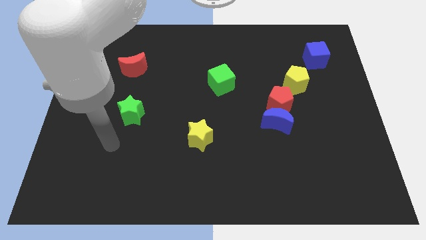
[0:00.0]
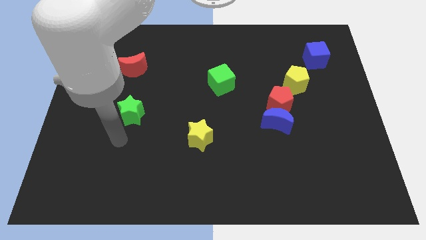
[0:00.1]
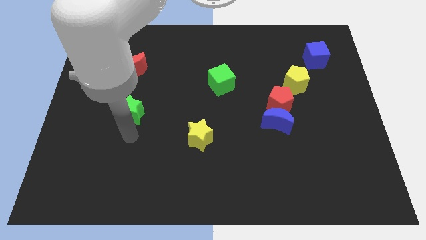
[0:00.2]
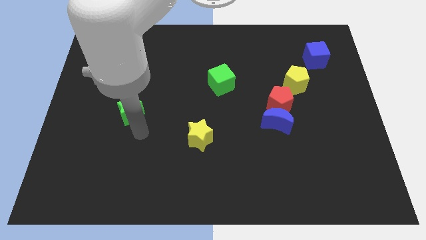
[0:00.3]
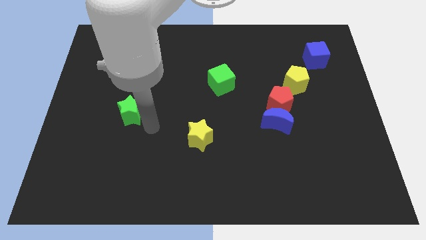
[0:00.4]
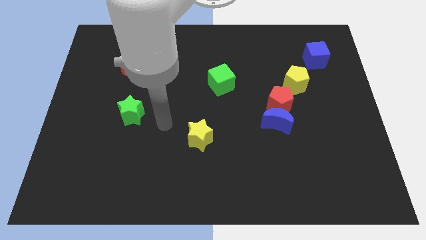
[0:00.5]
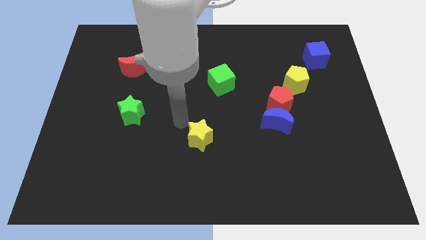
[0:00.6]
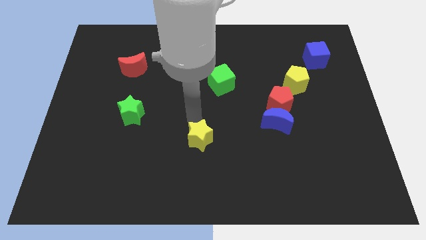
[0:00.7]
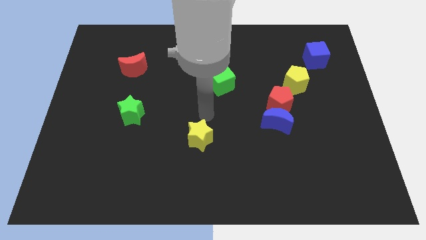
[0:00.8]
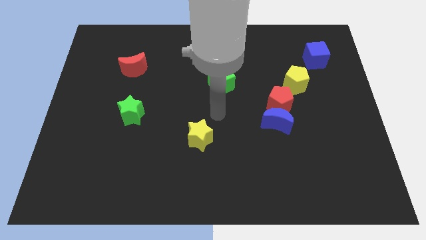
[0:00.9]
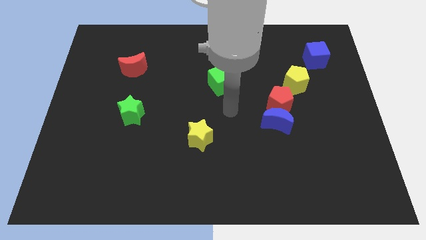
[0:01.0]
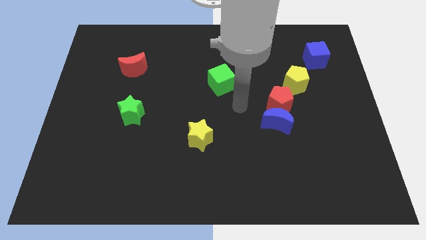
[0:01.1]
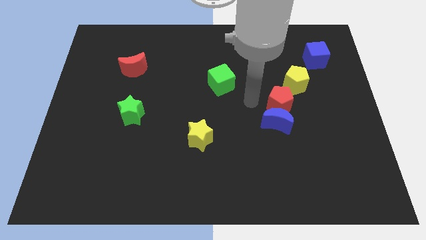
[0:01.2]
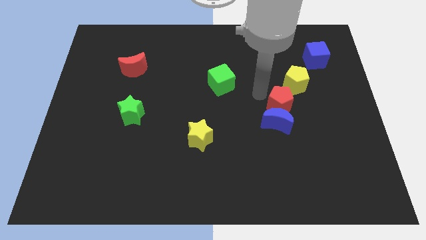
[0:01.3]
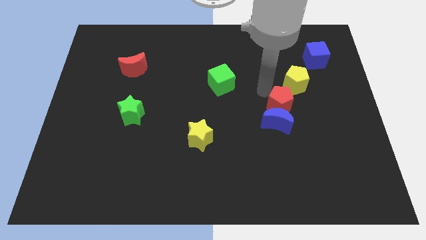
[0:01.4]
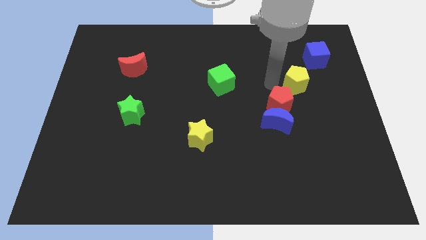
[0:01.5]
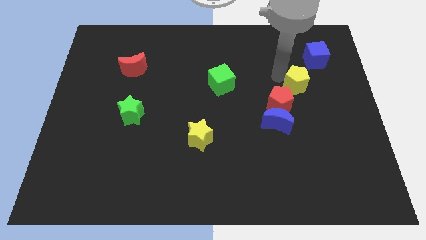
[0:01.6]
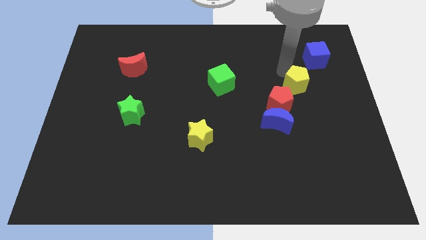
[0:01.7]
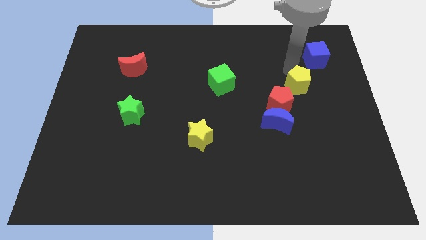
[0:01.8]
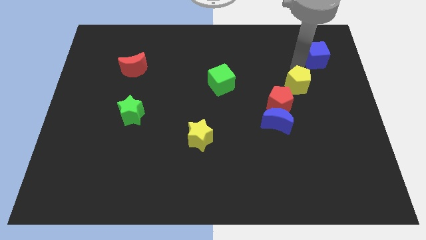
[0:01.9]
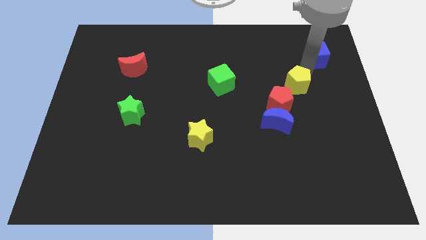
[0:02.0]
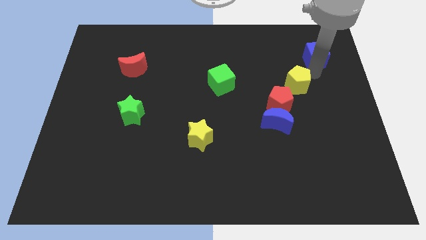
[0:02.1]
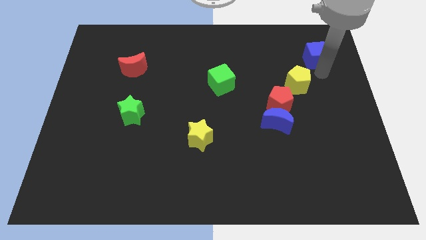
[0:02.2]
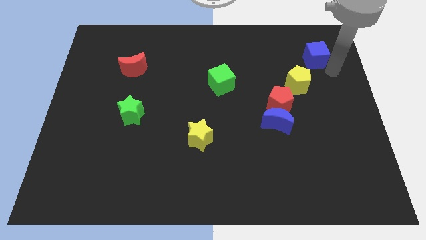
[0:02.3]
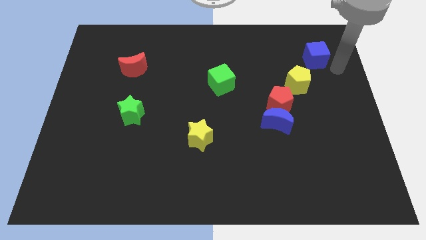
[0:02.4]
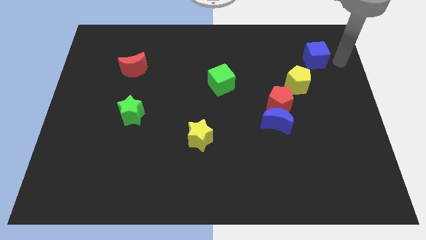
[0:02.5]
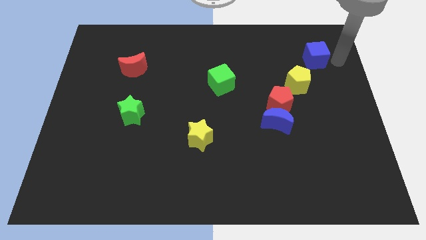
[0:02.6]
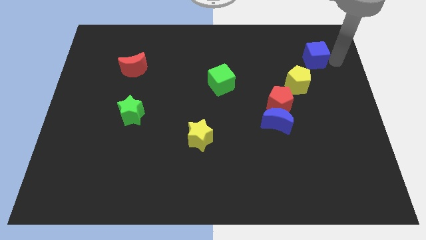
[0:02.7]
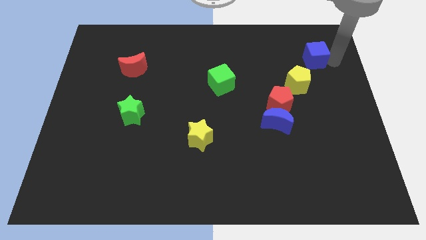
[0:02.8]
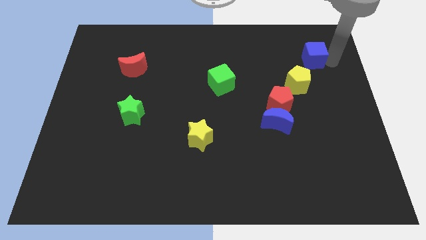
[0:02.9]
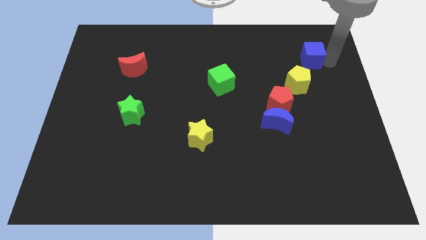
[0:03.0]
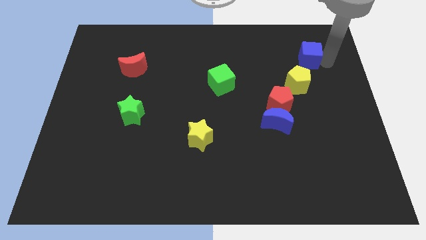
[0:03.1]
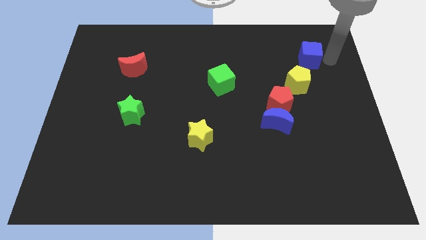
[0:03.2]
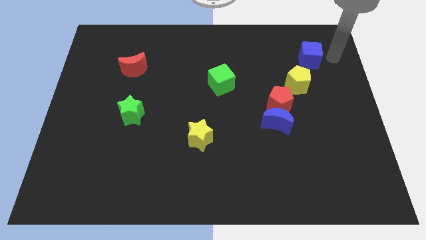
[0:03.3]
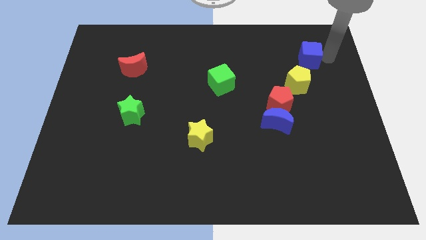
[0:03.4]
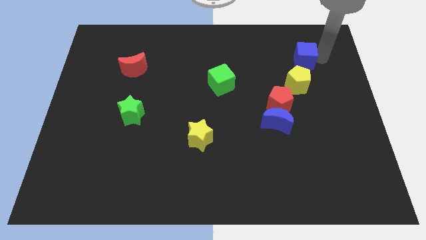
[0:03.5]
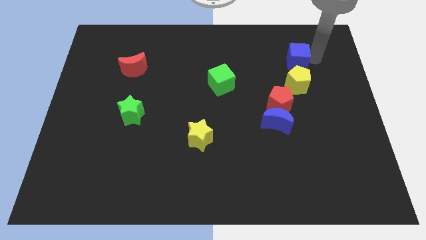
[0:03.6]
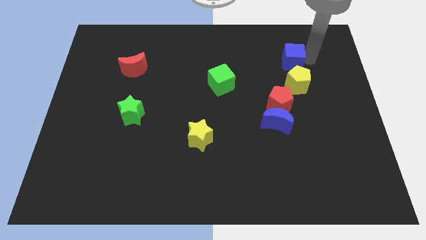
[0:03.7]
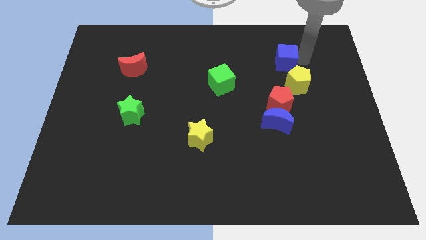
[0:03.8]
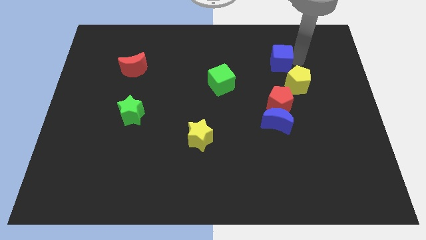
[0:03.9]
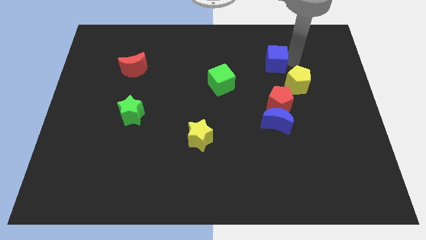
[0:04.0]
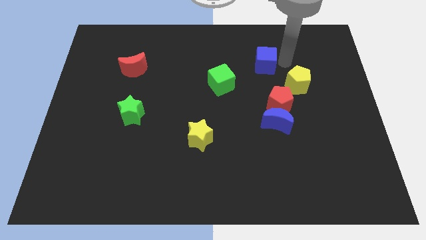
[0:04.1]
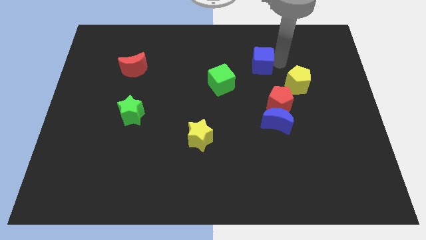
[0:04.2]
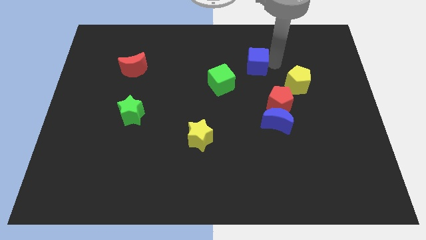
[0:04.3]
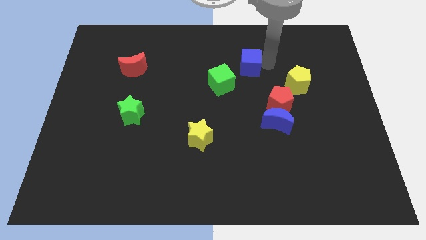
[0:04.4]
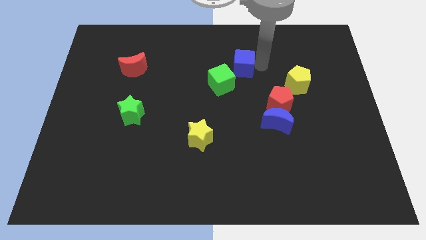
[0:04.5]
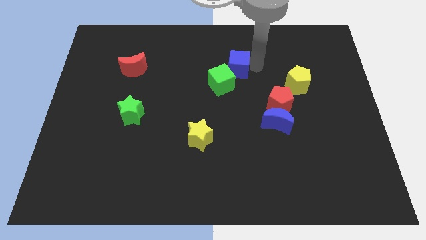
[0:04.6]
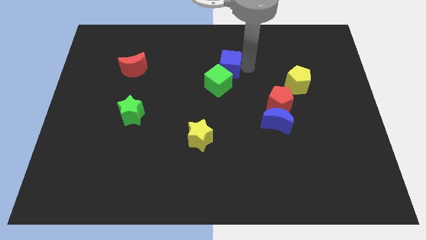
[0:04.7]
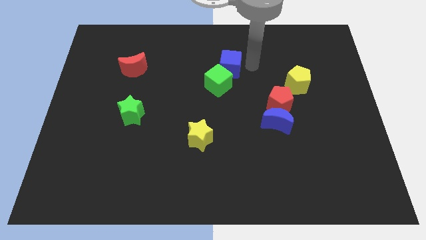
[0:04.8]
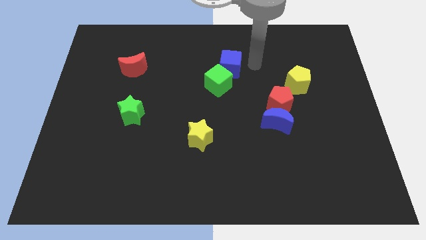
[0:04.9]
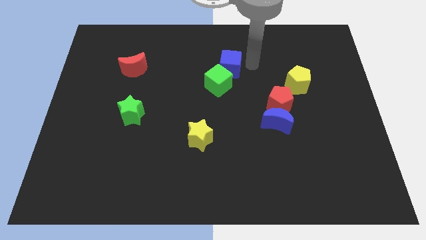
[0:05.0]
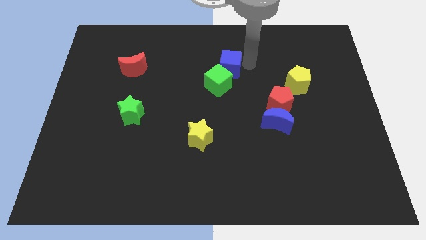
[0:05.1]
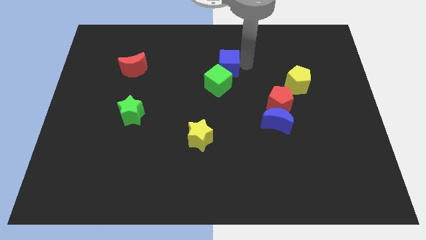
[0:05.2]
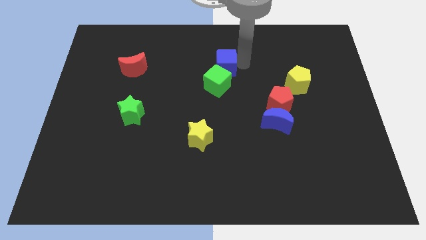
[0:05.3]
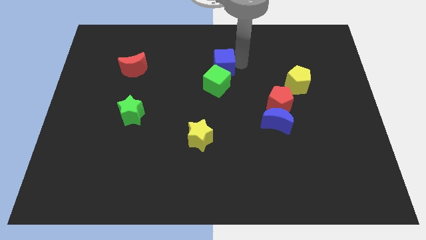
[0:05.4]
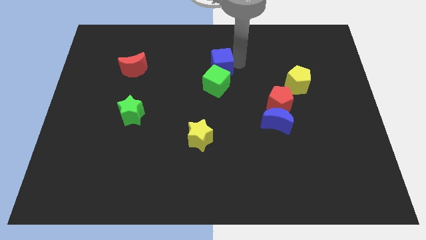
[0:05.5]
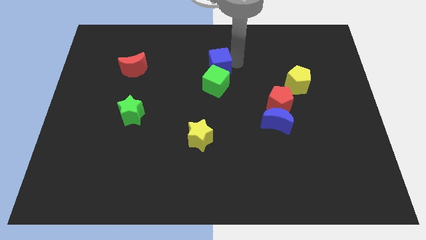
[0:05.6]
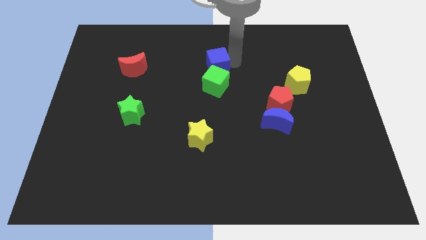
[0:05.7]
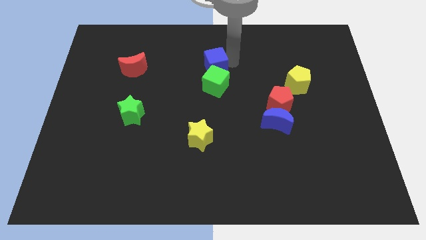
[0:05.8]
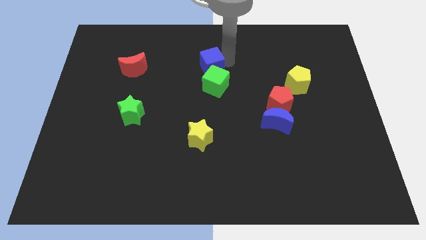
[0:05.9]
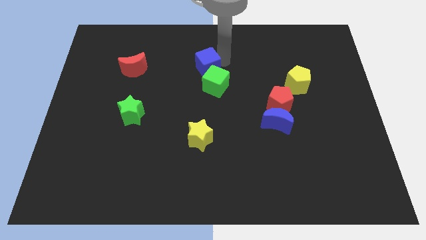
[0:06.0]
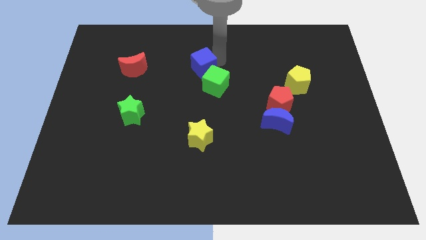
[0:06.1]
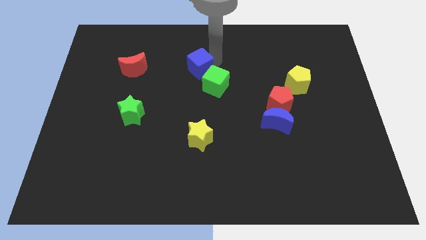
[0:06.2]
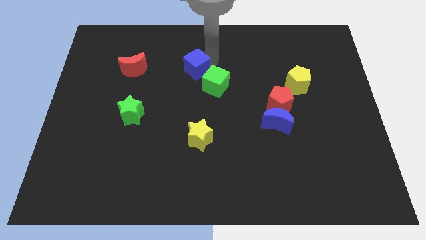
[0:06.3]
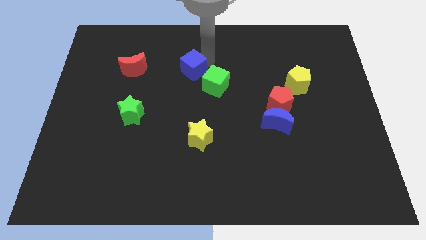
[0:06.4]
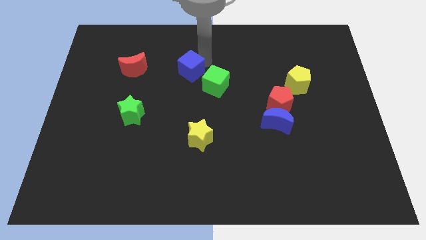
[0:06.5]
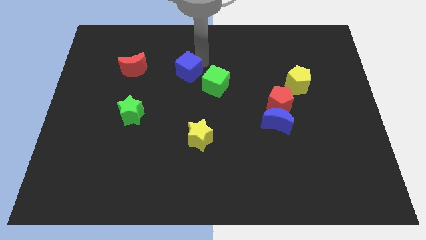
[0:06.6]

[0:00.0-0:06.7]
move the blue cube to the left of the green cube

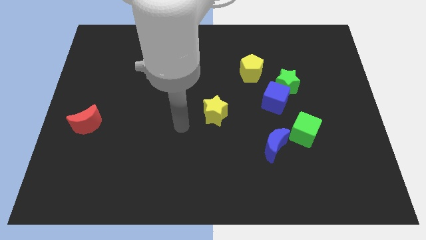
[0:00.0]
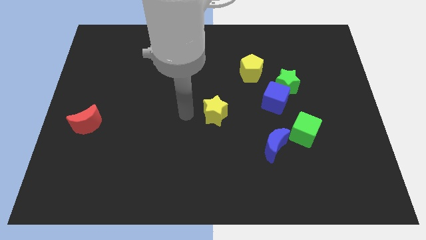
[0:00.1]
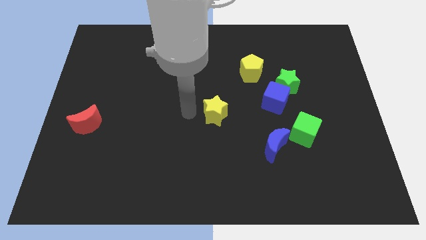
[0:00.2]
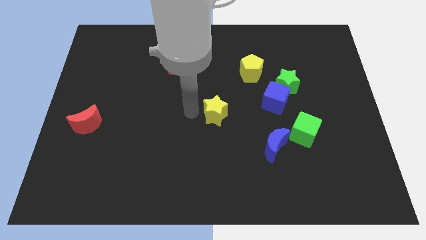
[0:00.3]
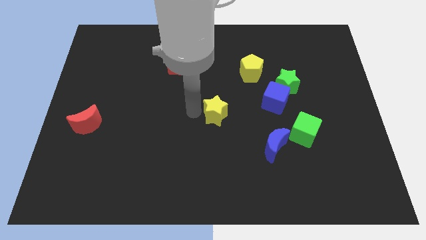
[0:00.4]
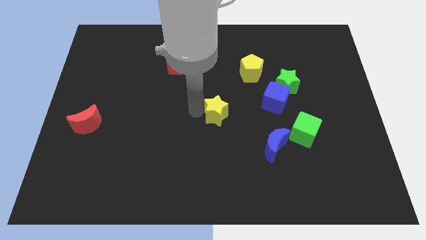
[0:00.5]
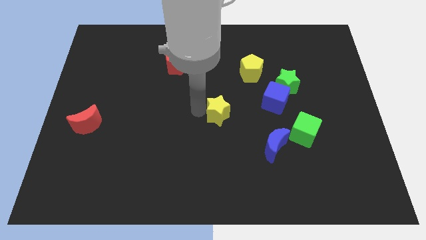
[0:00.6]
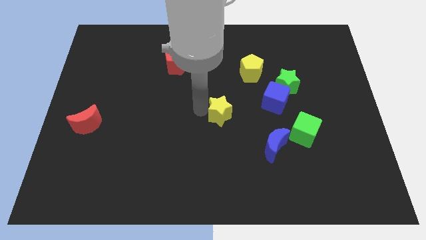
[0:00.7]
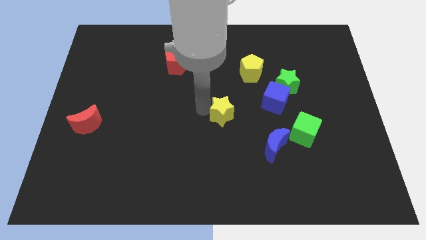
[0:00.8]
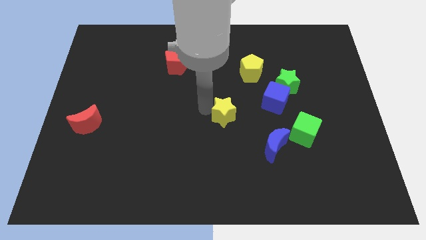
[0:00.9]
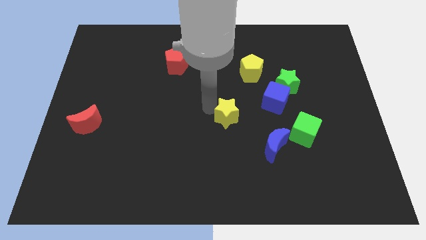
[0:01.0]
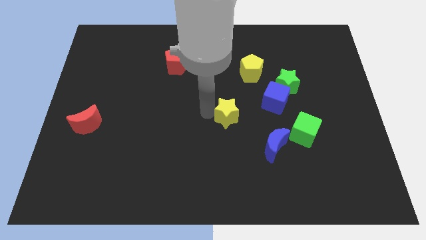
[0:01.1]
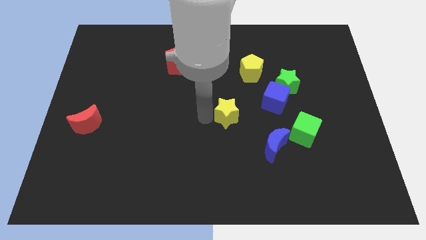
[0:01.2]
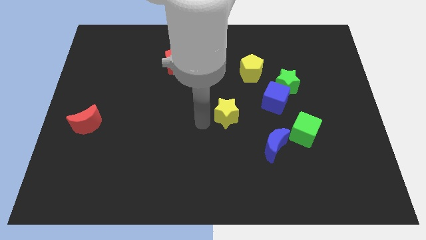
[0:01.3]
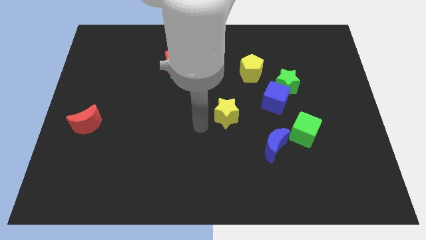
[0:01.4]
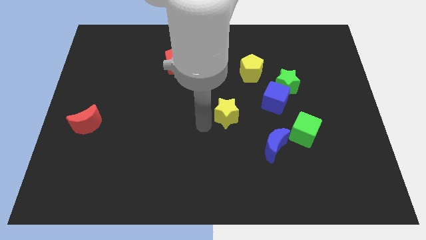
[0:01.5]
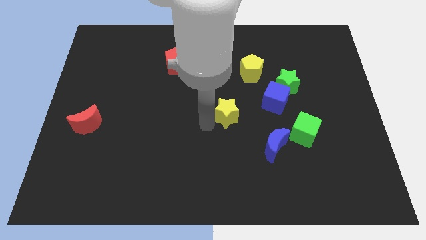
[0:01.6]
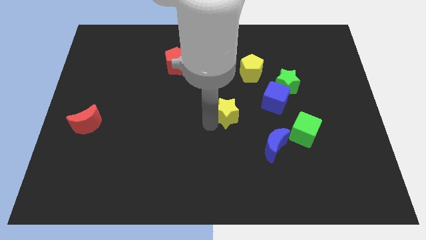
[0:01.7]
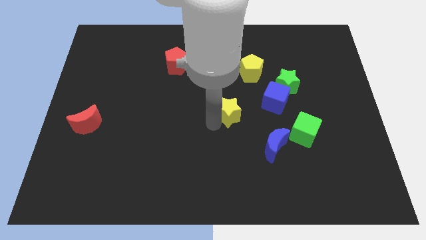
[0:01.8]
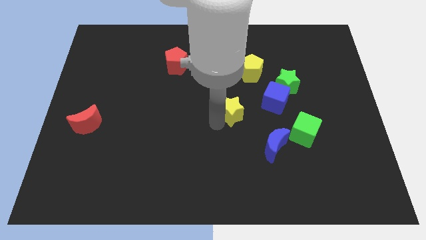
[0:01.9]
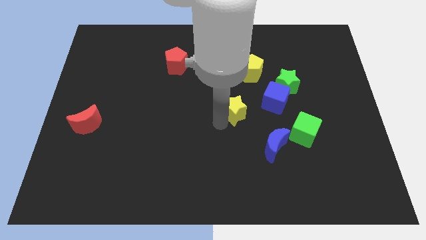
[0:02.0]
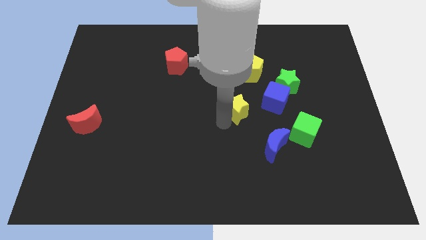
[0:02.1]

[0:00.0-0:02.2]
move the yellow star below the yellow pentagon
